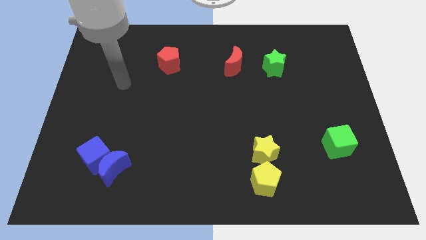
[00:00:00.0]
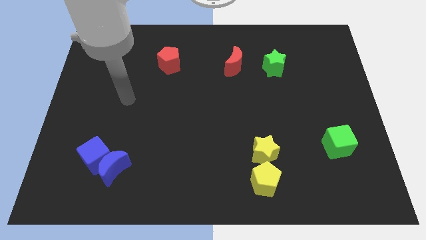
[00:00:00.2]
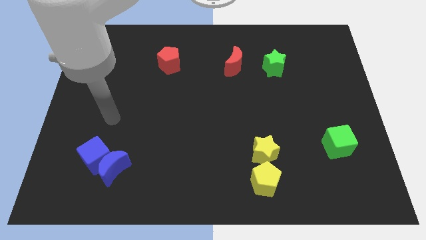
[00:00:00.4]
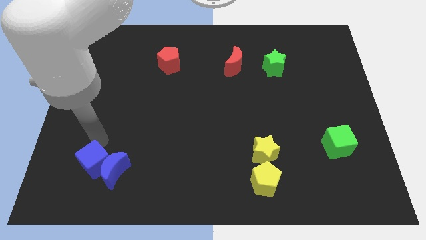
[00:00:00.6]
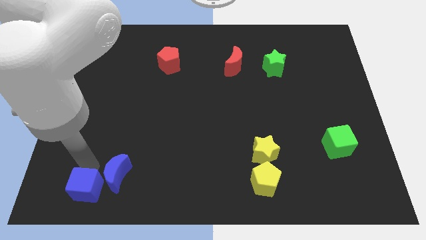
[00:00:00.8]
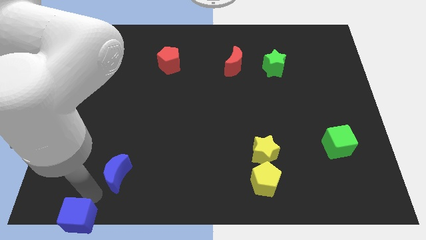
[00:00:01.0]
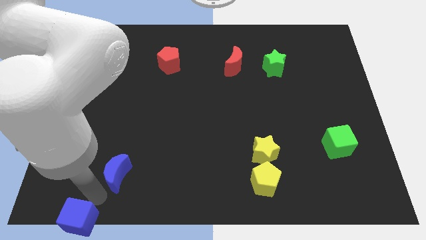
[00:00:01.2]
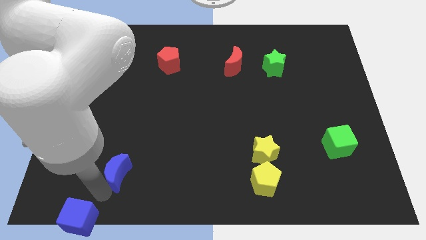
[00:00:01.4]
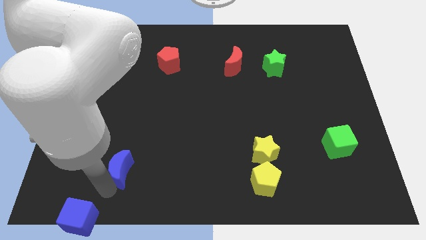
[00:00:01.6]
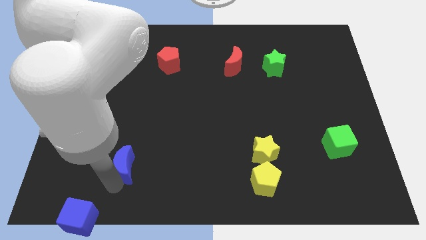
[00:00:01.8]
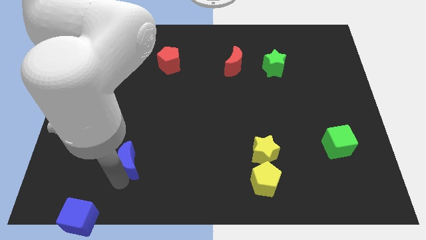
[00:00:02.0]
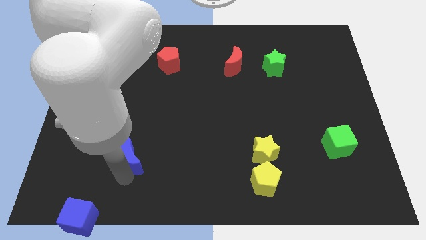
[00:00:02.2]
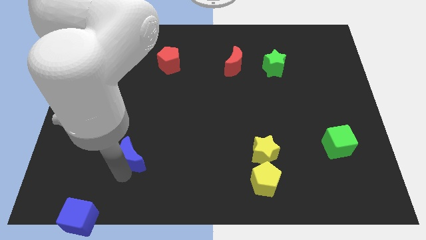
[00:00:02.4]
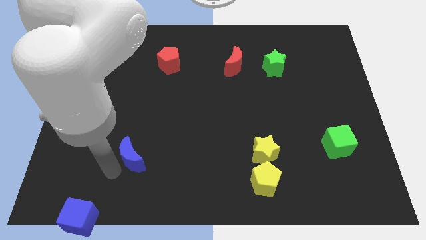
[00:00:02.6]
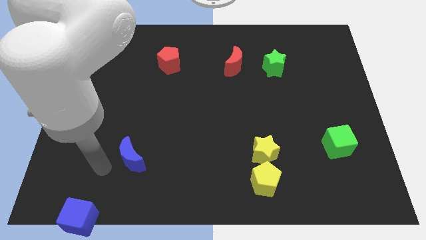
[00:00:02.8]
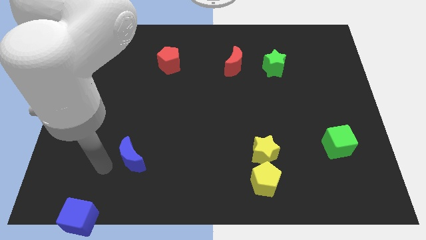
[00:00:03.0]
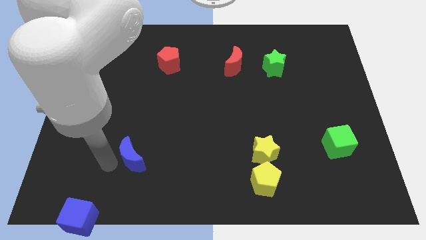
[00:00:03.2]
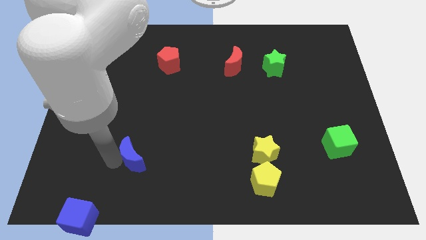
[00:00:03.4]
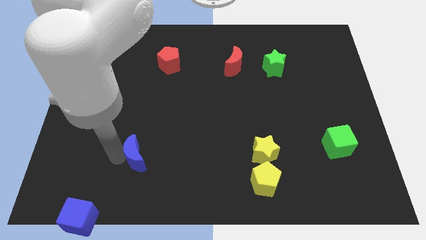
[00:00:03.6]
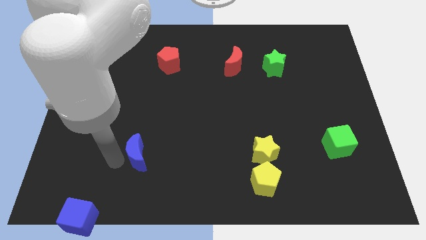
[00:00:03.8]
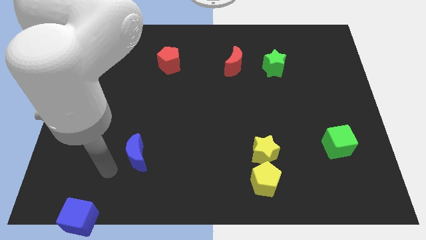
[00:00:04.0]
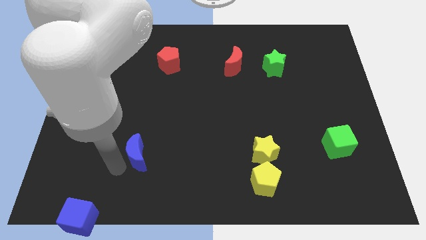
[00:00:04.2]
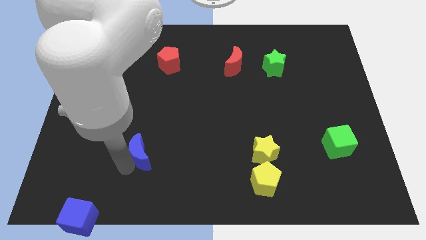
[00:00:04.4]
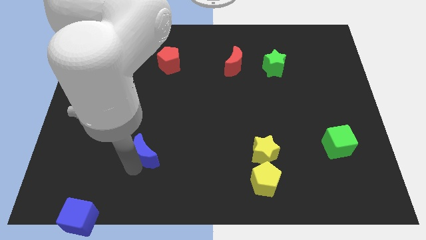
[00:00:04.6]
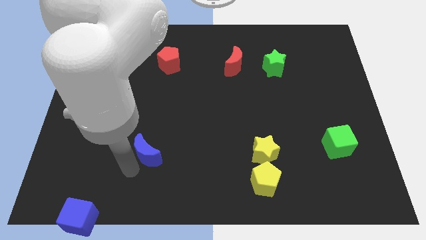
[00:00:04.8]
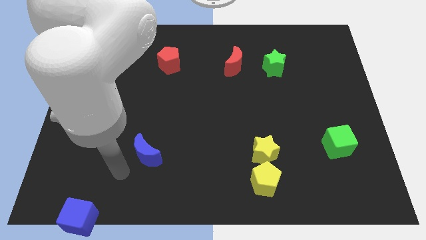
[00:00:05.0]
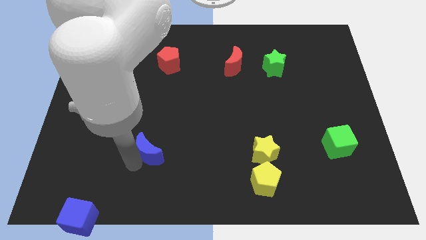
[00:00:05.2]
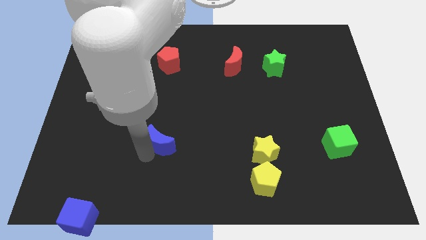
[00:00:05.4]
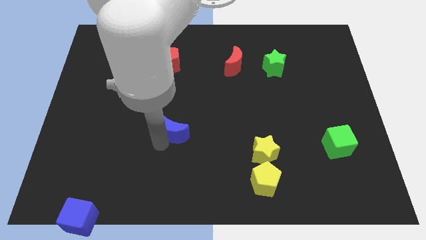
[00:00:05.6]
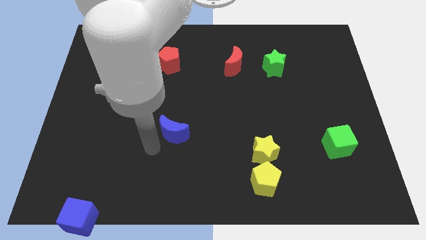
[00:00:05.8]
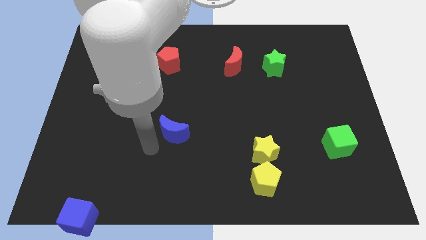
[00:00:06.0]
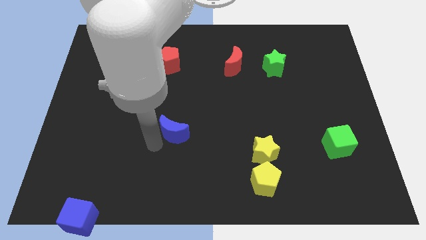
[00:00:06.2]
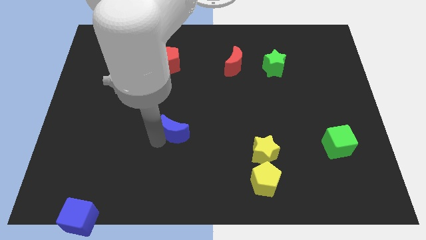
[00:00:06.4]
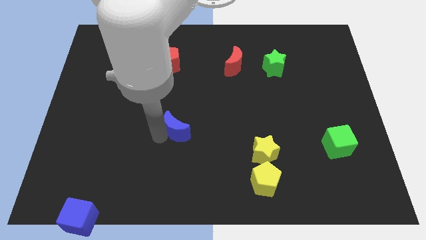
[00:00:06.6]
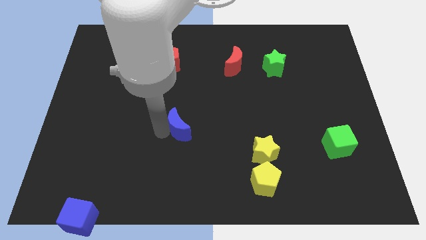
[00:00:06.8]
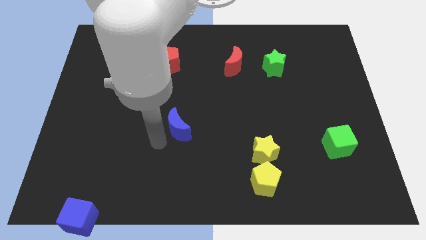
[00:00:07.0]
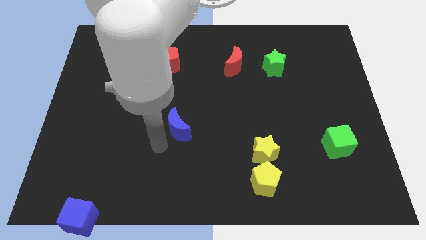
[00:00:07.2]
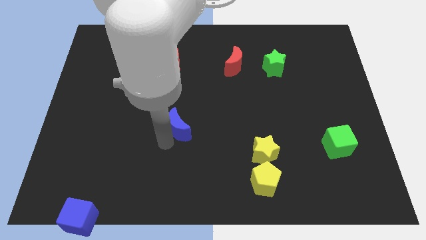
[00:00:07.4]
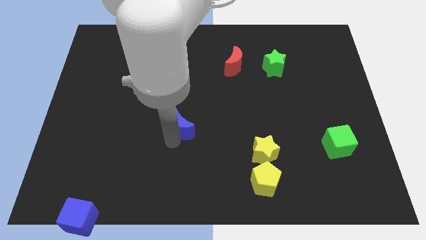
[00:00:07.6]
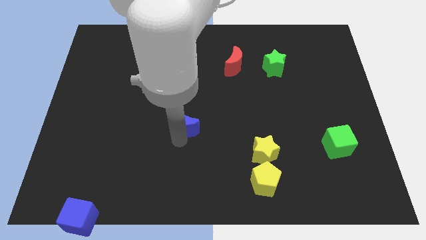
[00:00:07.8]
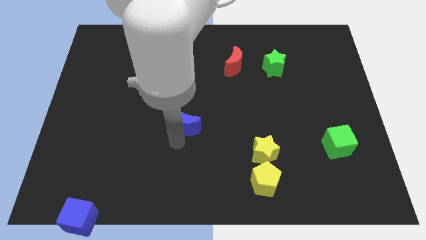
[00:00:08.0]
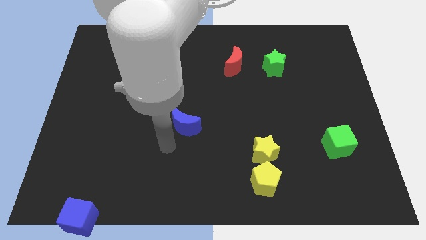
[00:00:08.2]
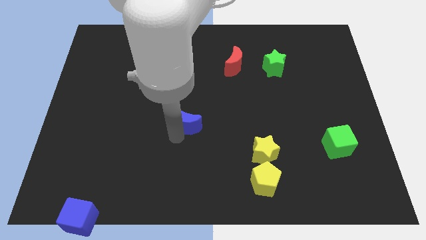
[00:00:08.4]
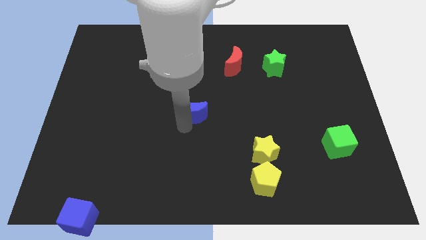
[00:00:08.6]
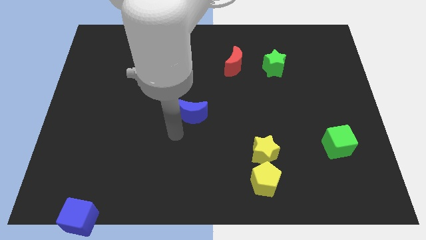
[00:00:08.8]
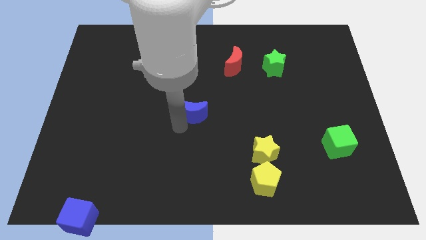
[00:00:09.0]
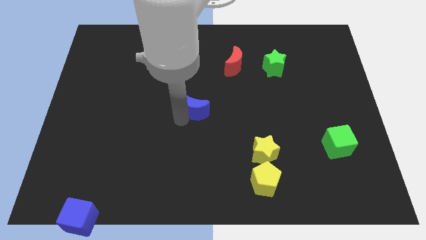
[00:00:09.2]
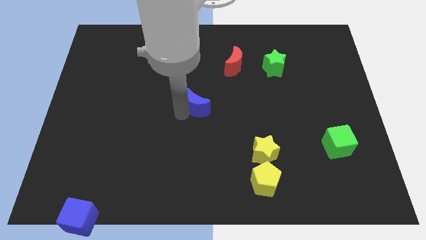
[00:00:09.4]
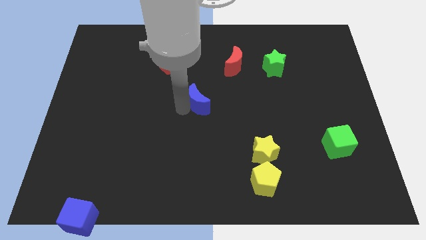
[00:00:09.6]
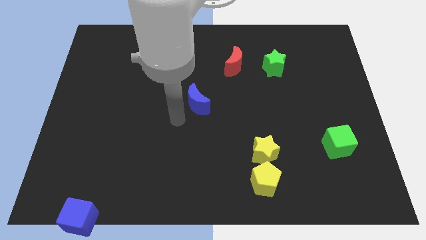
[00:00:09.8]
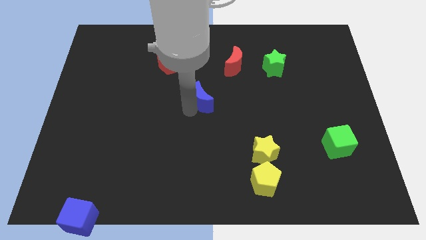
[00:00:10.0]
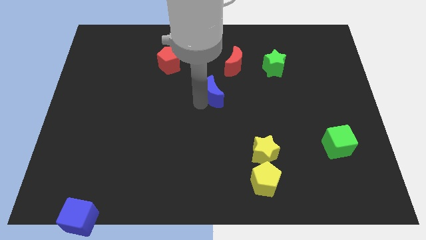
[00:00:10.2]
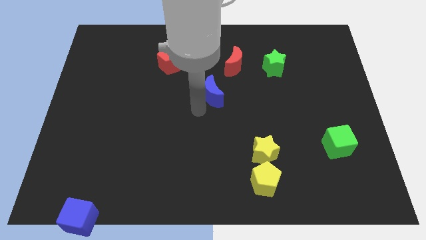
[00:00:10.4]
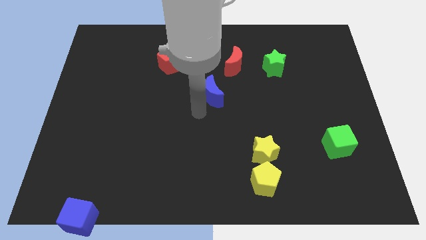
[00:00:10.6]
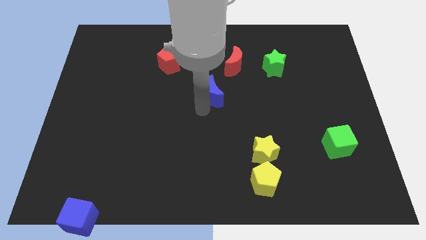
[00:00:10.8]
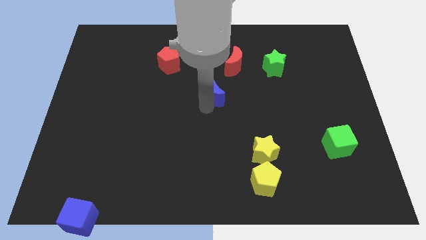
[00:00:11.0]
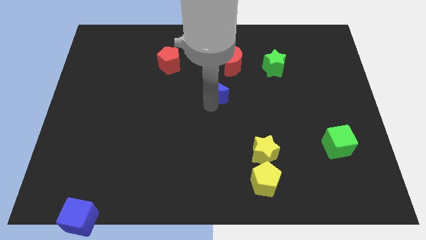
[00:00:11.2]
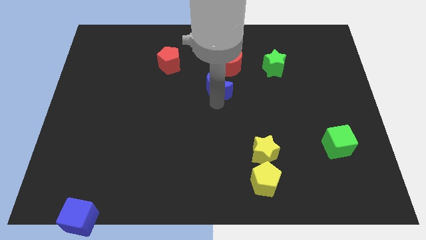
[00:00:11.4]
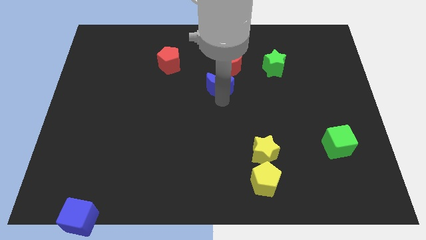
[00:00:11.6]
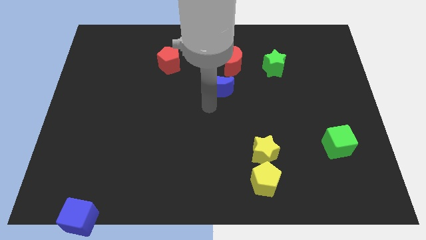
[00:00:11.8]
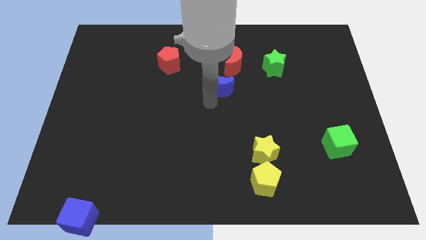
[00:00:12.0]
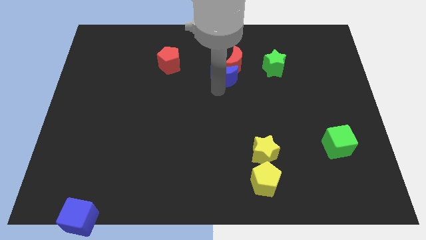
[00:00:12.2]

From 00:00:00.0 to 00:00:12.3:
push the blue moon close to the red moon

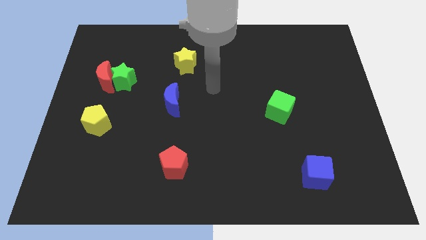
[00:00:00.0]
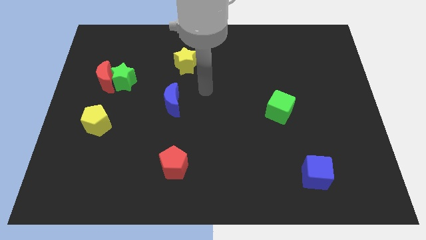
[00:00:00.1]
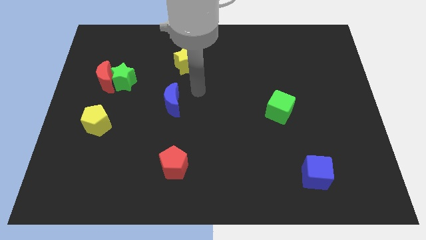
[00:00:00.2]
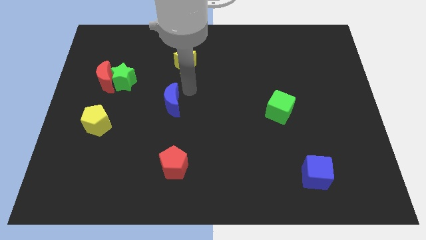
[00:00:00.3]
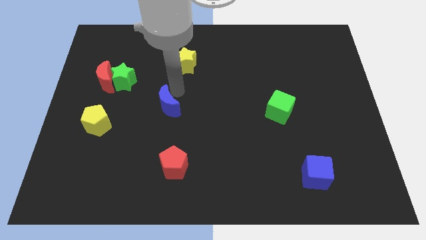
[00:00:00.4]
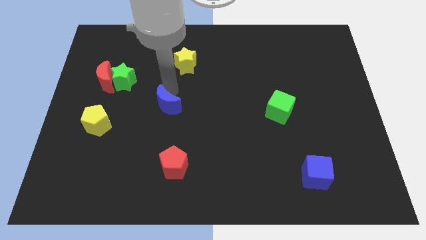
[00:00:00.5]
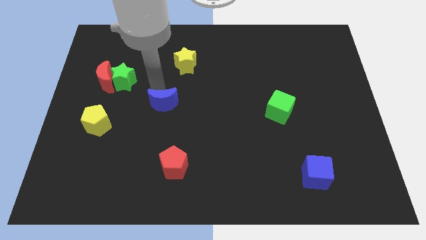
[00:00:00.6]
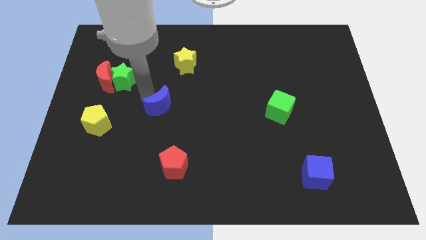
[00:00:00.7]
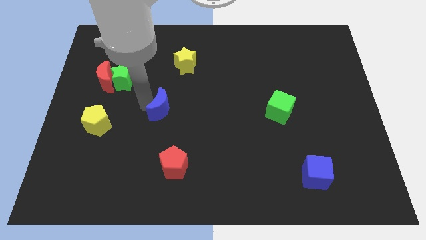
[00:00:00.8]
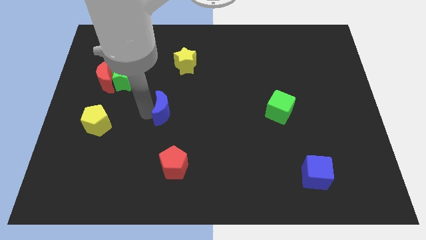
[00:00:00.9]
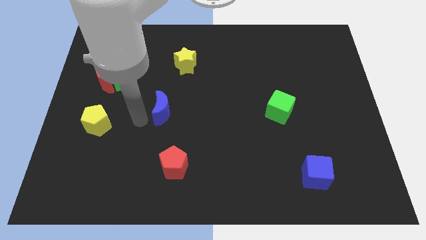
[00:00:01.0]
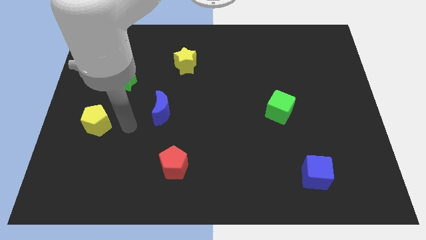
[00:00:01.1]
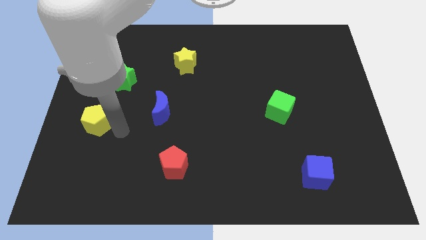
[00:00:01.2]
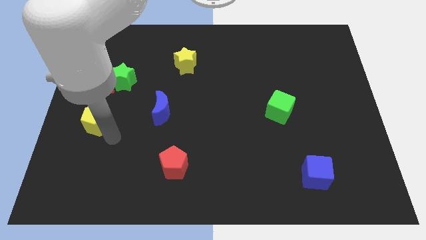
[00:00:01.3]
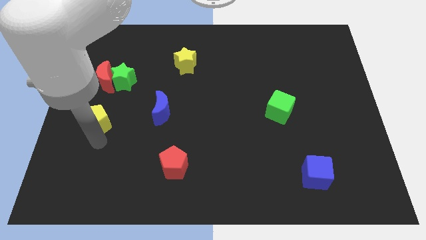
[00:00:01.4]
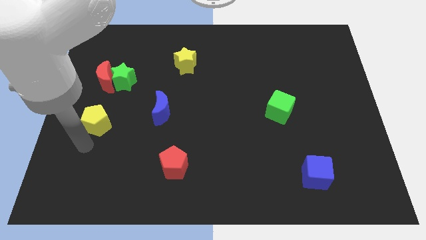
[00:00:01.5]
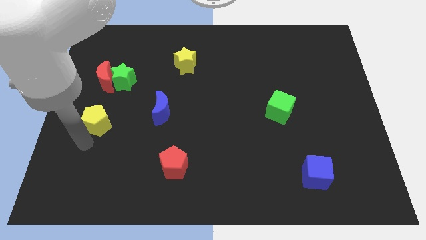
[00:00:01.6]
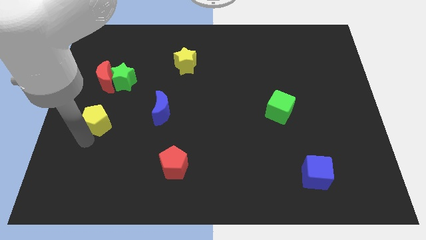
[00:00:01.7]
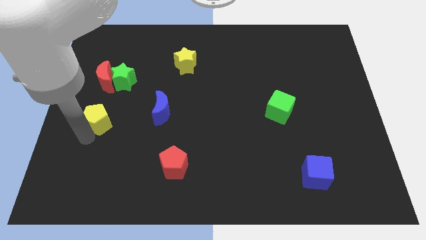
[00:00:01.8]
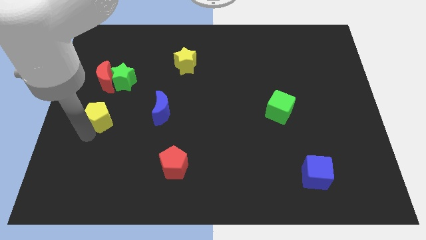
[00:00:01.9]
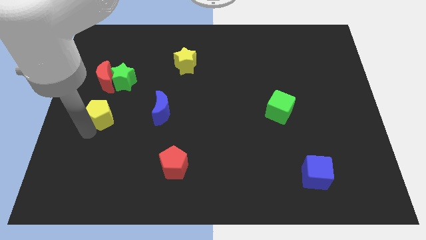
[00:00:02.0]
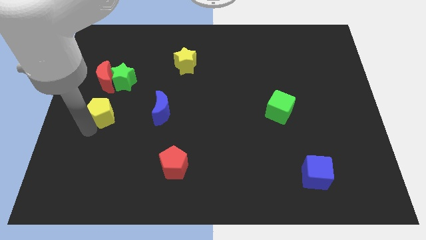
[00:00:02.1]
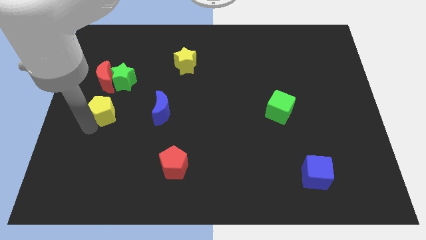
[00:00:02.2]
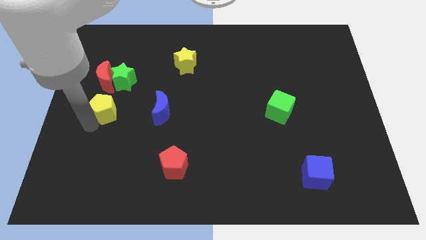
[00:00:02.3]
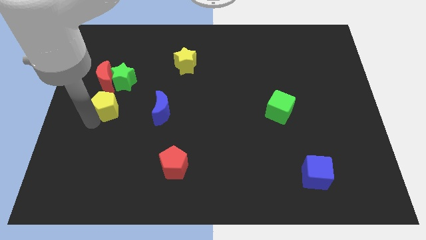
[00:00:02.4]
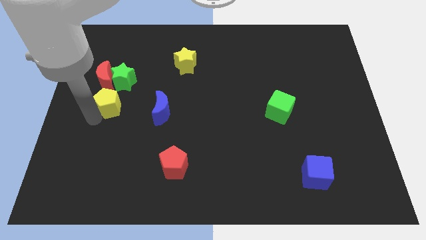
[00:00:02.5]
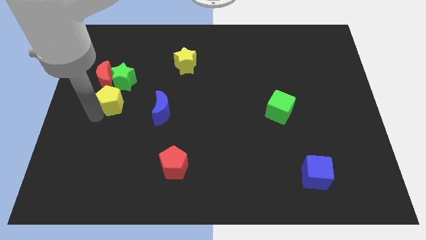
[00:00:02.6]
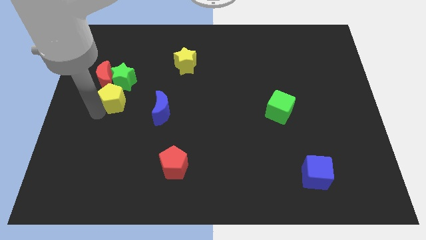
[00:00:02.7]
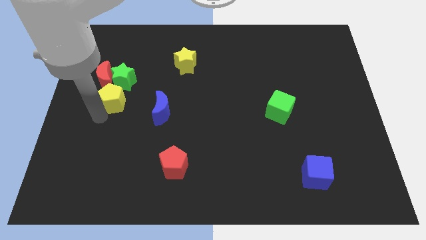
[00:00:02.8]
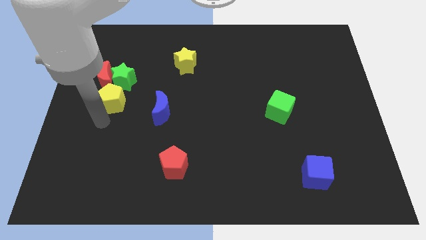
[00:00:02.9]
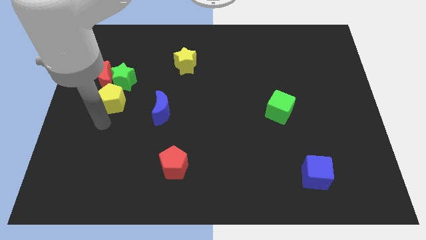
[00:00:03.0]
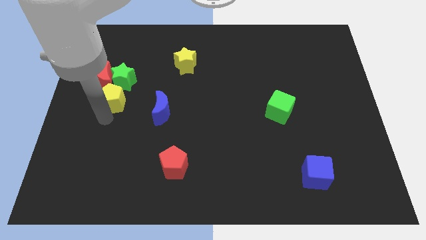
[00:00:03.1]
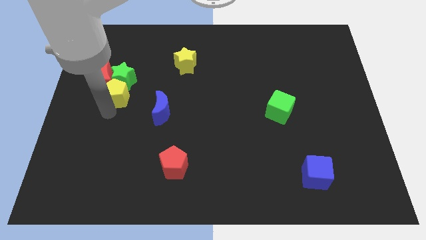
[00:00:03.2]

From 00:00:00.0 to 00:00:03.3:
slide the yellow pentagon close to the green star
